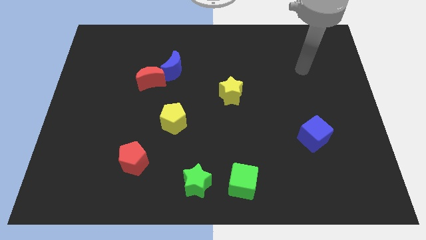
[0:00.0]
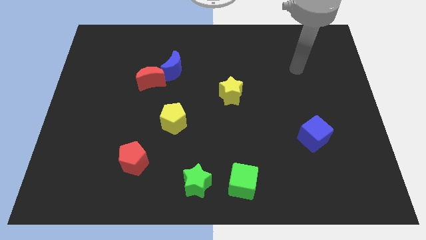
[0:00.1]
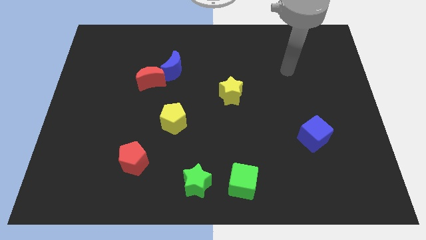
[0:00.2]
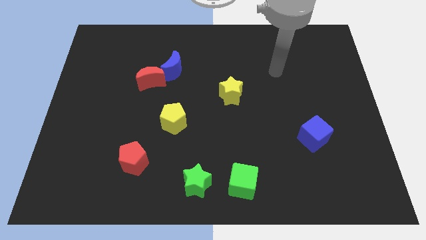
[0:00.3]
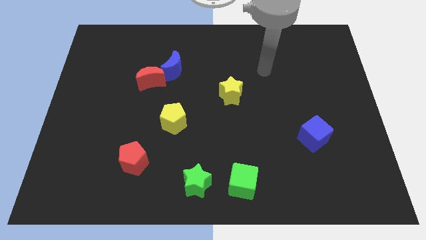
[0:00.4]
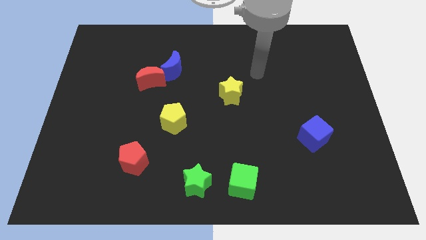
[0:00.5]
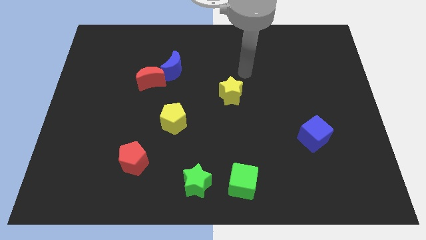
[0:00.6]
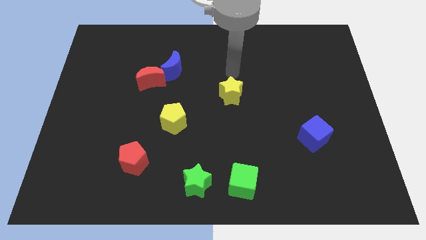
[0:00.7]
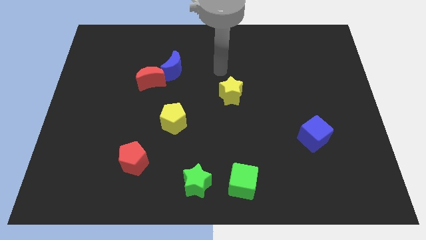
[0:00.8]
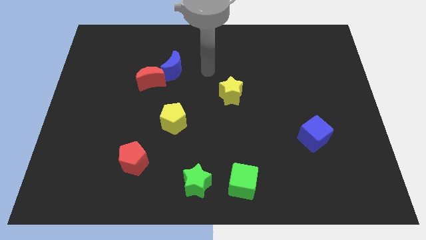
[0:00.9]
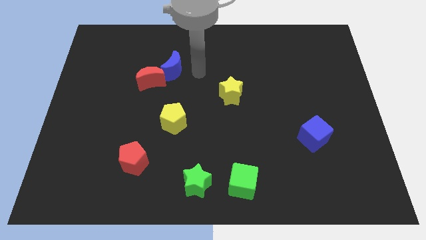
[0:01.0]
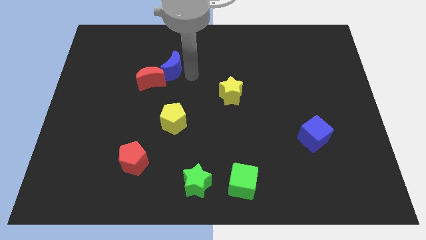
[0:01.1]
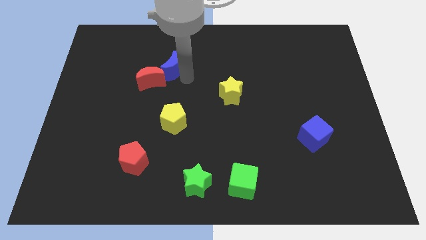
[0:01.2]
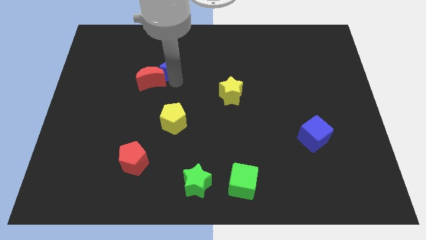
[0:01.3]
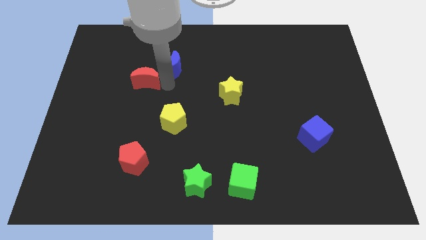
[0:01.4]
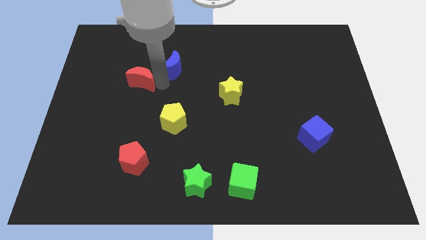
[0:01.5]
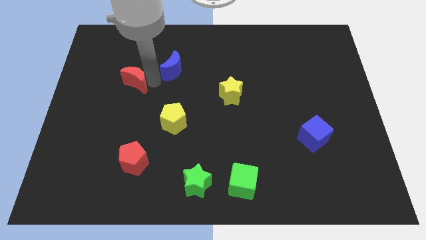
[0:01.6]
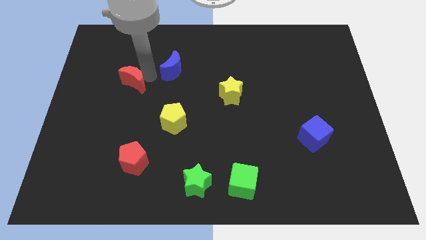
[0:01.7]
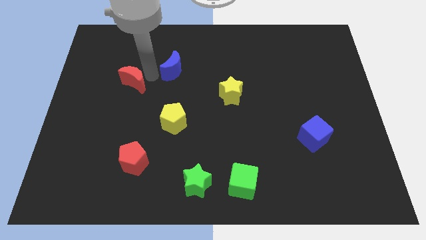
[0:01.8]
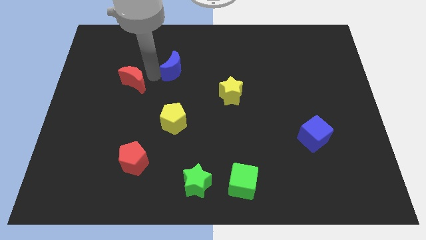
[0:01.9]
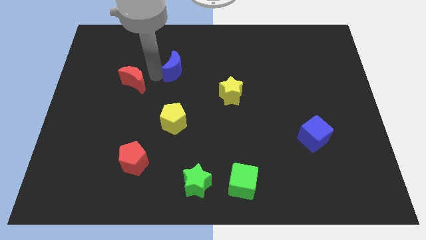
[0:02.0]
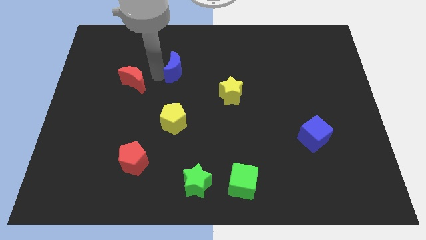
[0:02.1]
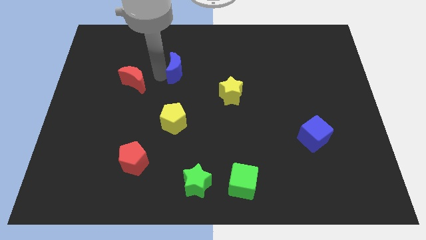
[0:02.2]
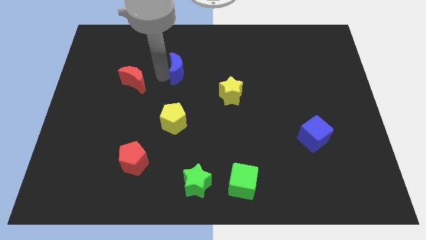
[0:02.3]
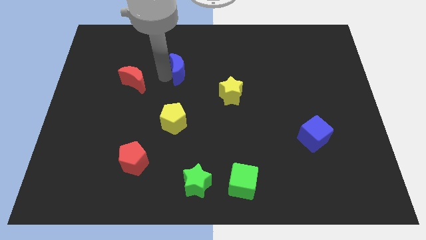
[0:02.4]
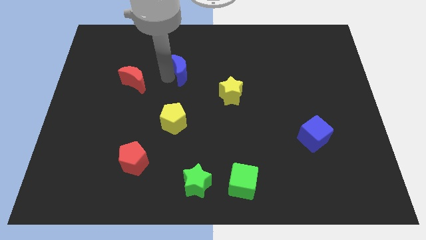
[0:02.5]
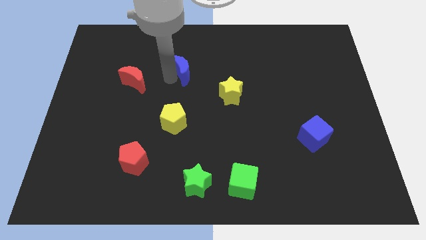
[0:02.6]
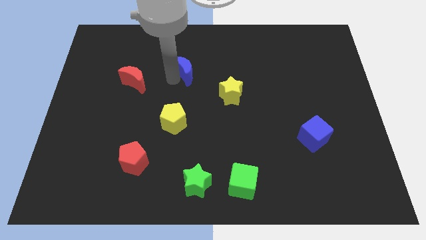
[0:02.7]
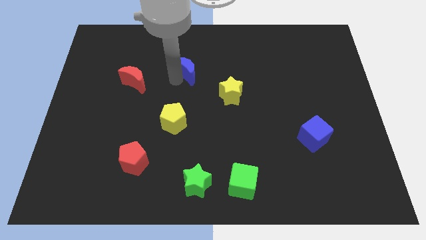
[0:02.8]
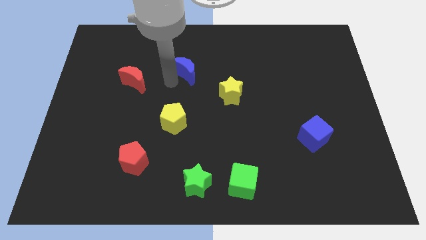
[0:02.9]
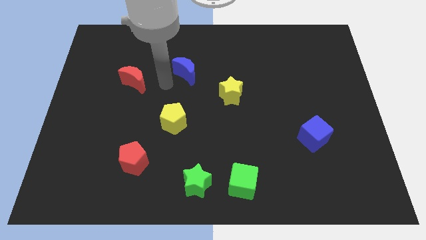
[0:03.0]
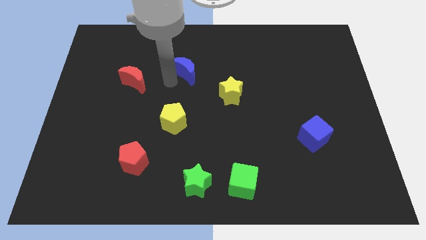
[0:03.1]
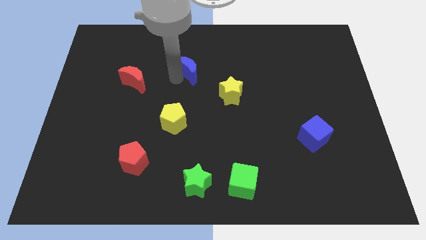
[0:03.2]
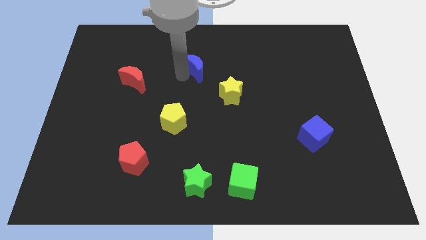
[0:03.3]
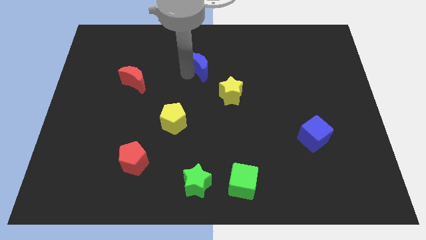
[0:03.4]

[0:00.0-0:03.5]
slide the blue moon to the right a bit

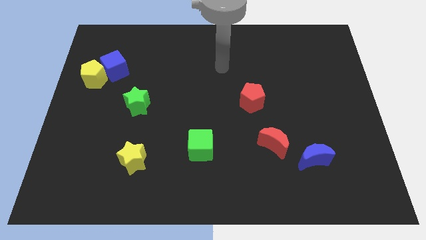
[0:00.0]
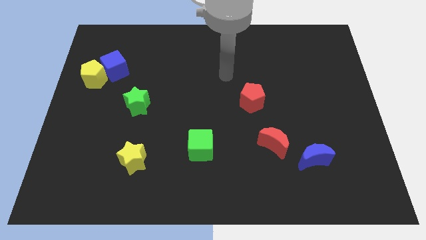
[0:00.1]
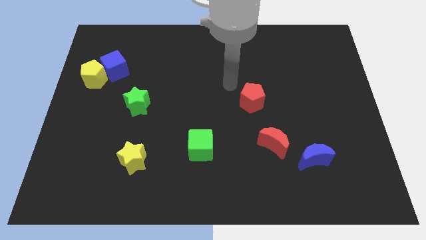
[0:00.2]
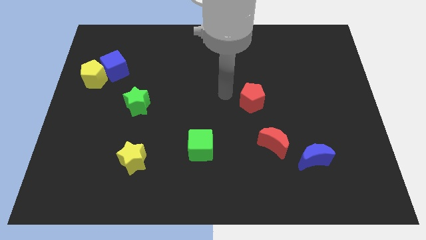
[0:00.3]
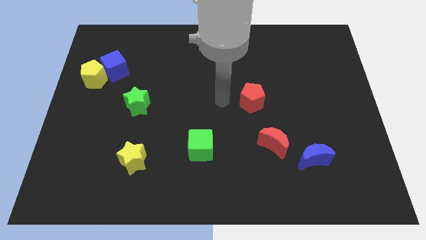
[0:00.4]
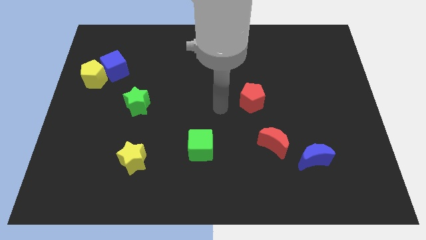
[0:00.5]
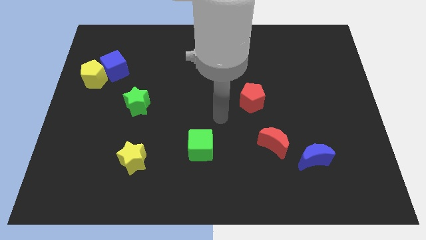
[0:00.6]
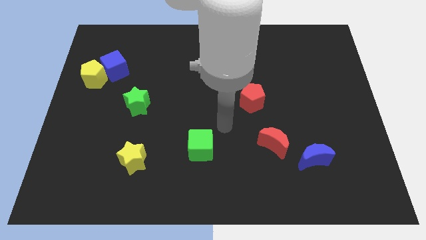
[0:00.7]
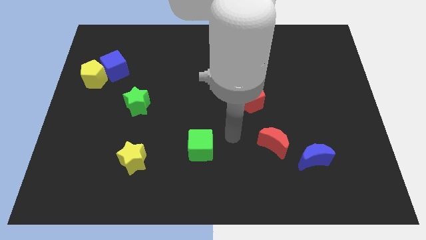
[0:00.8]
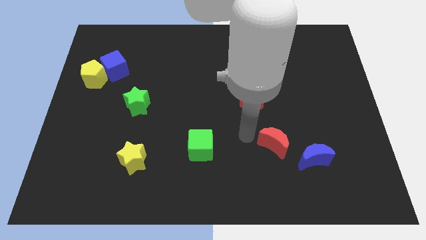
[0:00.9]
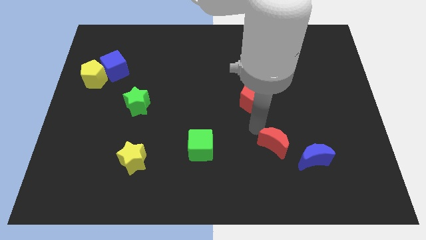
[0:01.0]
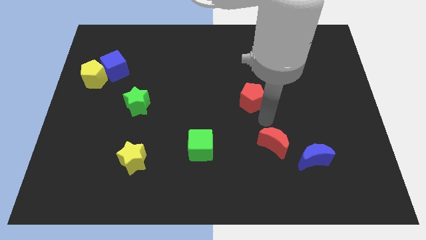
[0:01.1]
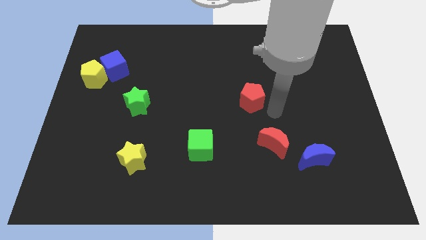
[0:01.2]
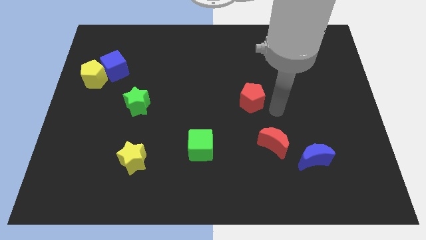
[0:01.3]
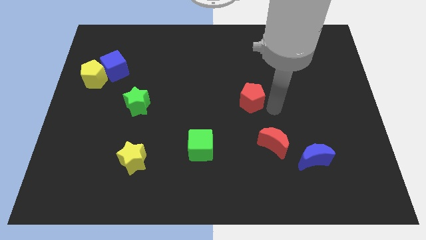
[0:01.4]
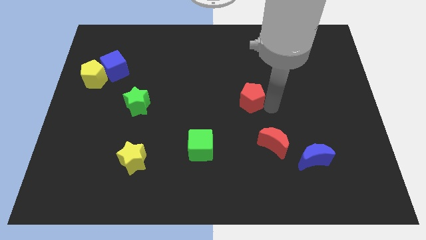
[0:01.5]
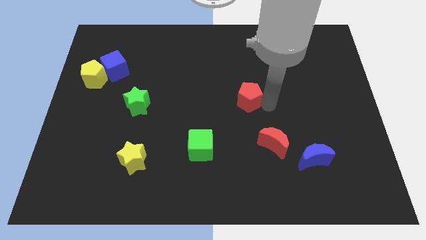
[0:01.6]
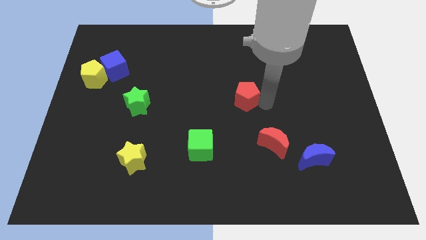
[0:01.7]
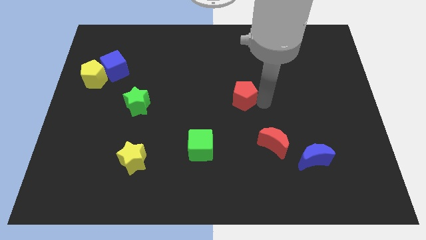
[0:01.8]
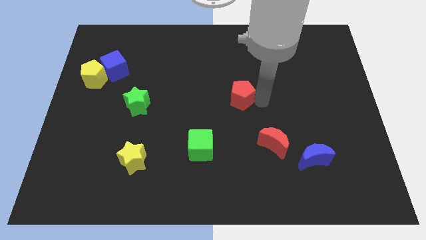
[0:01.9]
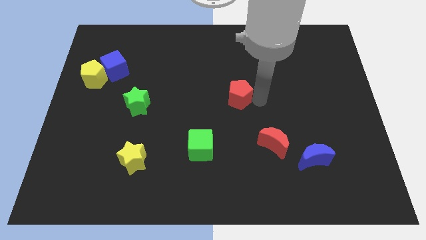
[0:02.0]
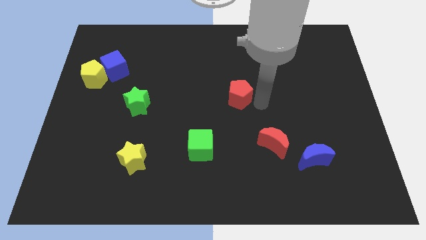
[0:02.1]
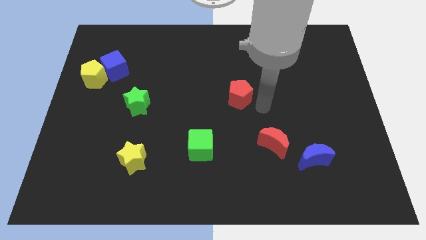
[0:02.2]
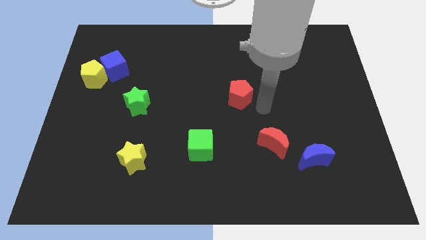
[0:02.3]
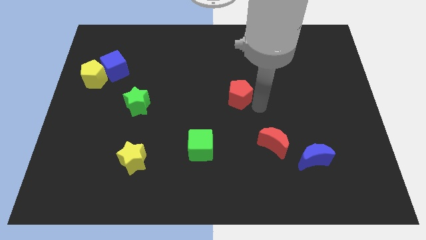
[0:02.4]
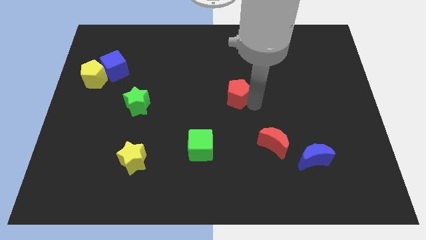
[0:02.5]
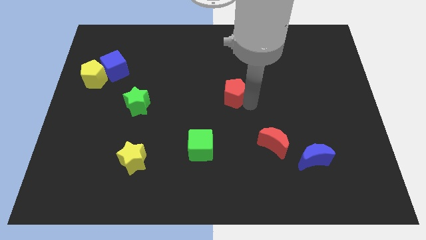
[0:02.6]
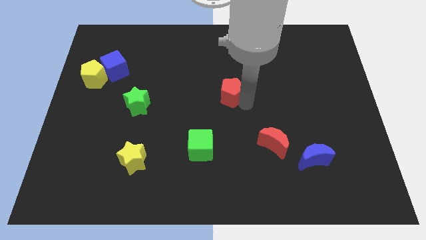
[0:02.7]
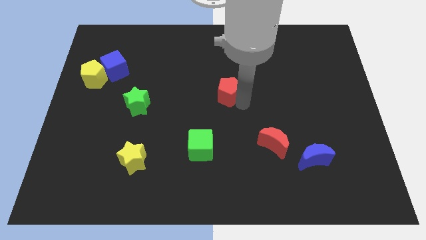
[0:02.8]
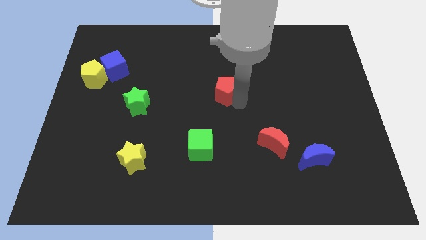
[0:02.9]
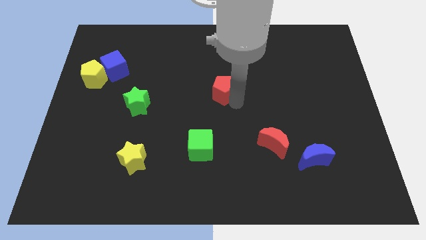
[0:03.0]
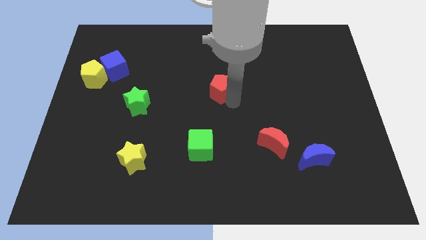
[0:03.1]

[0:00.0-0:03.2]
push the red pentagon up and then to the left a little

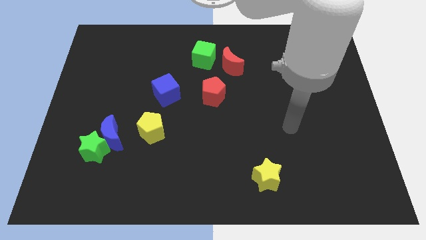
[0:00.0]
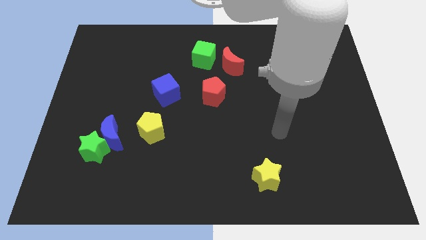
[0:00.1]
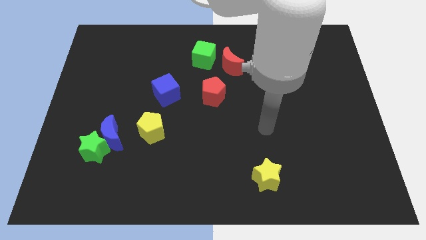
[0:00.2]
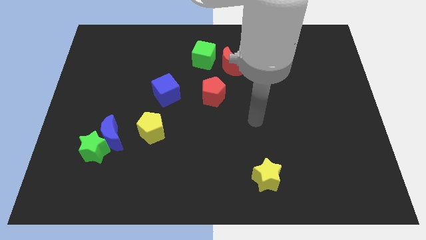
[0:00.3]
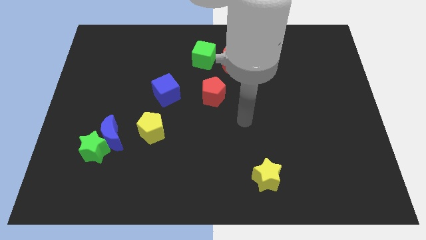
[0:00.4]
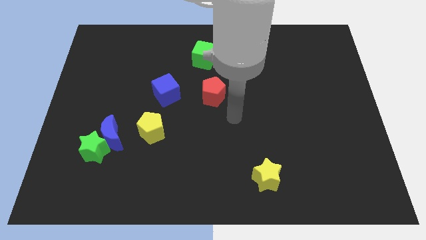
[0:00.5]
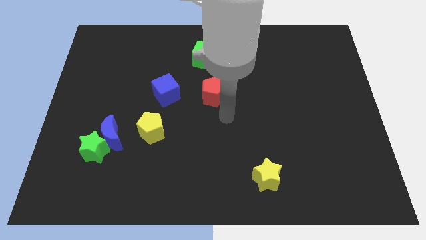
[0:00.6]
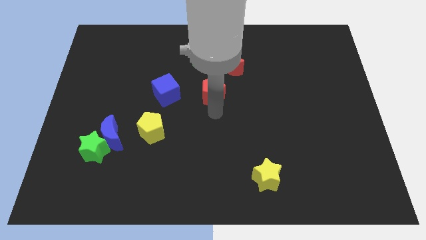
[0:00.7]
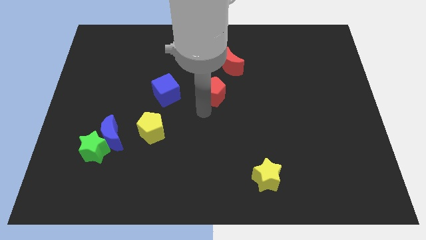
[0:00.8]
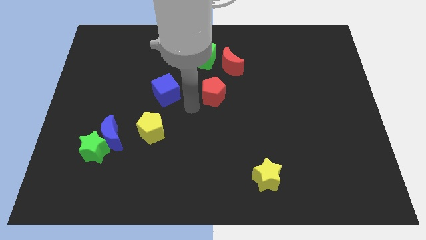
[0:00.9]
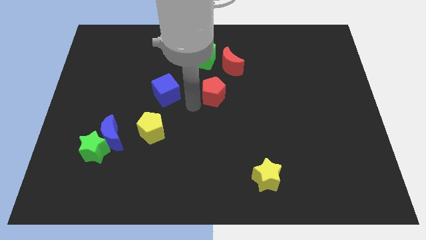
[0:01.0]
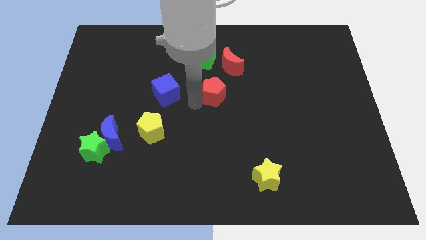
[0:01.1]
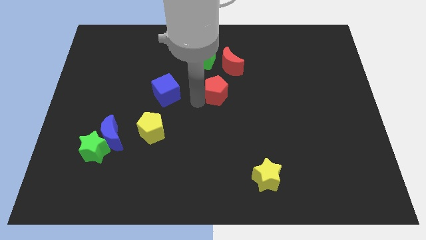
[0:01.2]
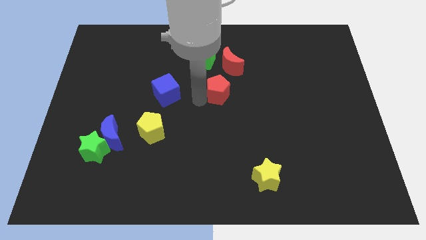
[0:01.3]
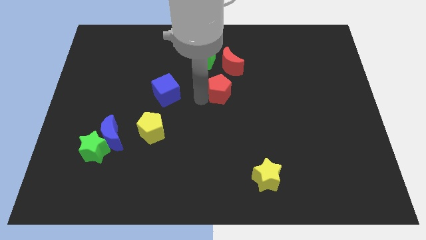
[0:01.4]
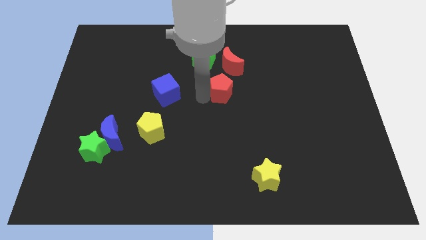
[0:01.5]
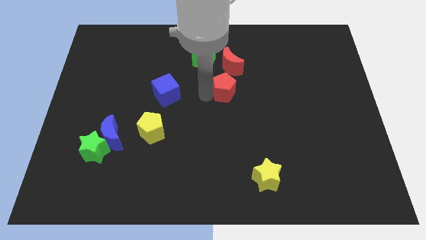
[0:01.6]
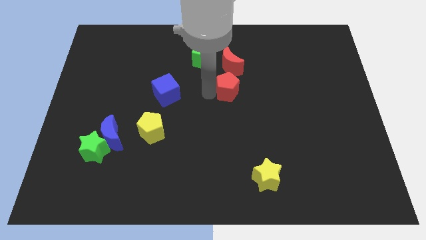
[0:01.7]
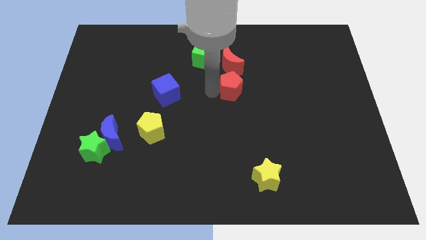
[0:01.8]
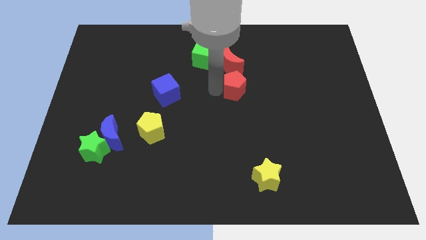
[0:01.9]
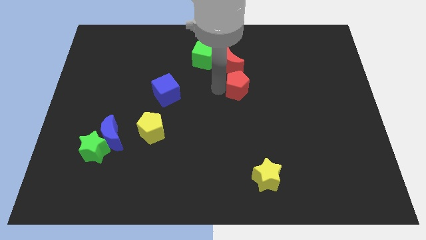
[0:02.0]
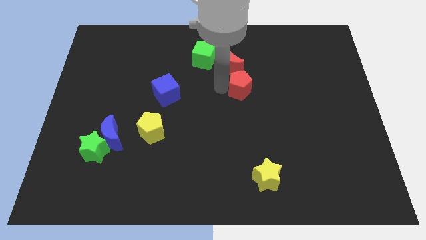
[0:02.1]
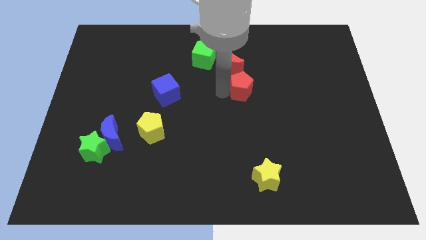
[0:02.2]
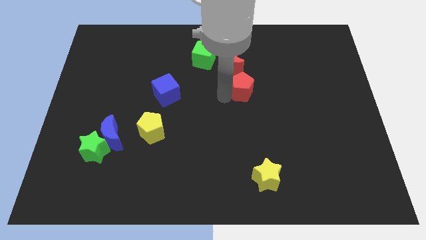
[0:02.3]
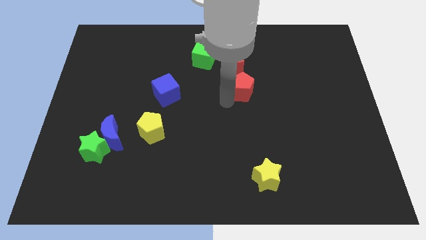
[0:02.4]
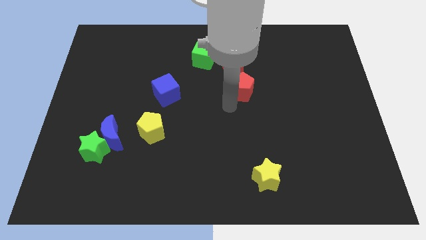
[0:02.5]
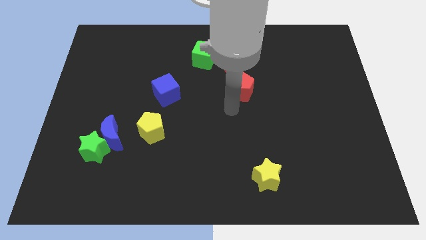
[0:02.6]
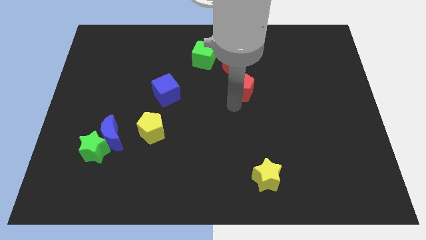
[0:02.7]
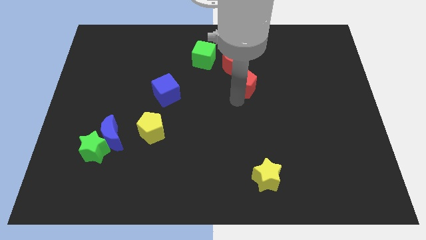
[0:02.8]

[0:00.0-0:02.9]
slightly push the red pentagon up and then to the right
